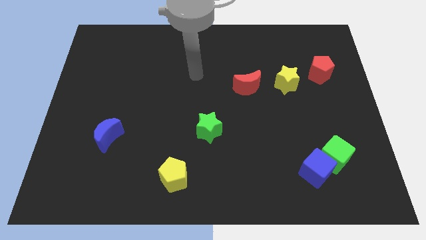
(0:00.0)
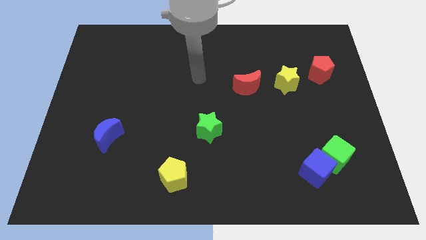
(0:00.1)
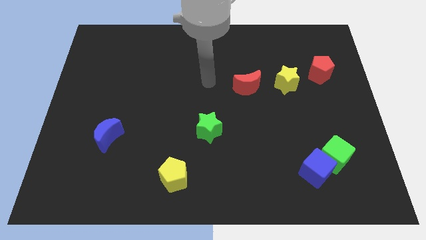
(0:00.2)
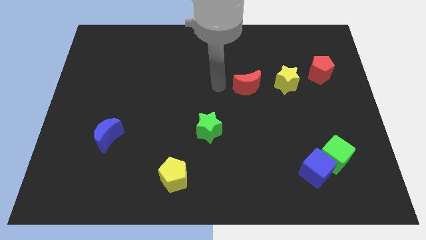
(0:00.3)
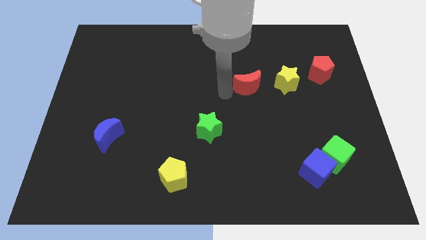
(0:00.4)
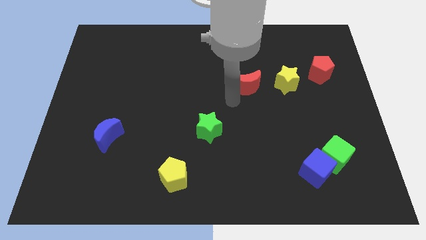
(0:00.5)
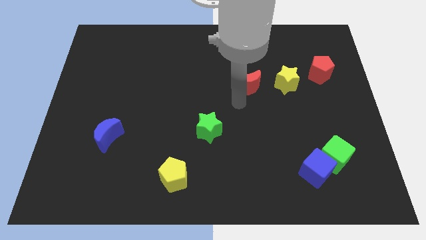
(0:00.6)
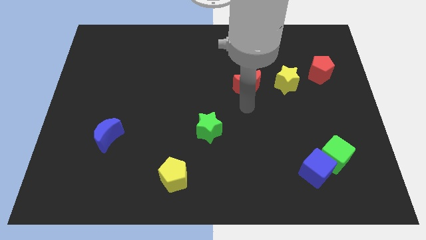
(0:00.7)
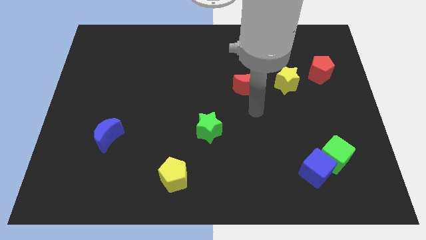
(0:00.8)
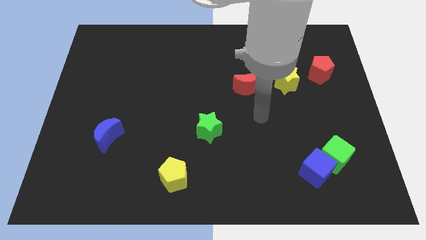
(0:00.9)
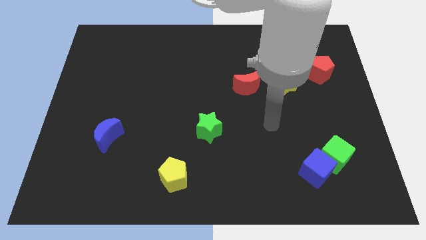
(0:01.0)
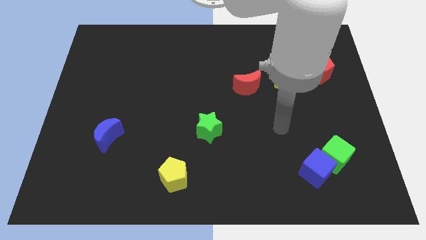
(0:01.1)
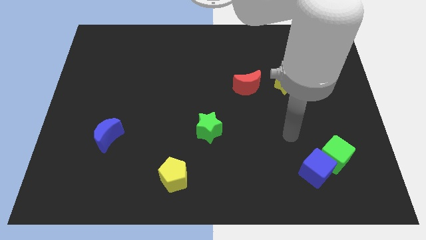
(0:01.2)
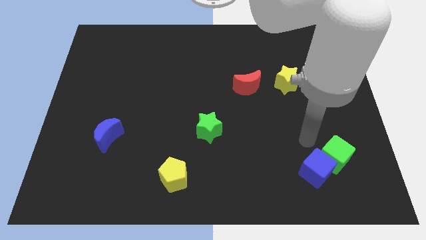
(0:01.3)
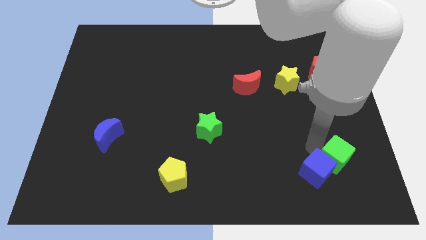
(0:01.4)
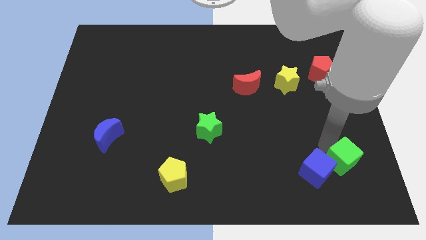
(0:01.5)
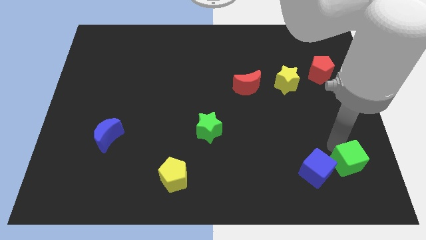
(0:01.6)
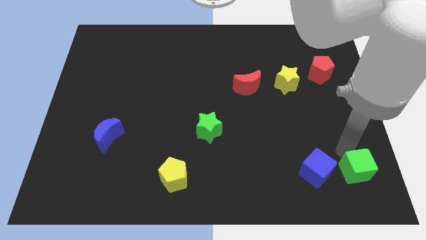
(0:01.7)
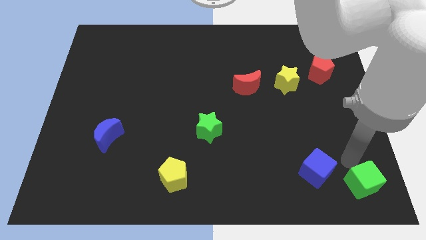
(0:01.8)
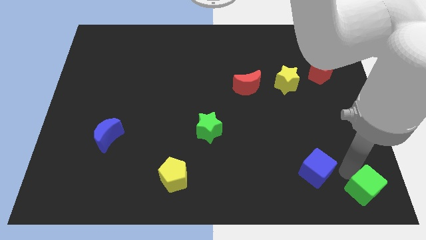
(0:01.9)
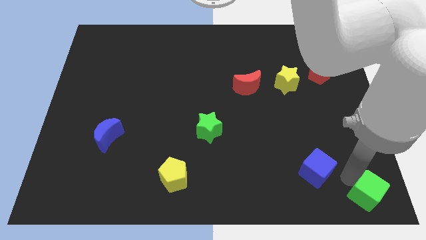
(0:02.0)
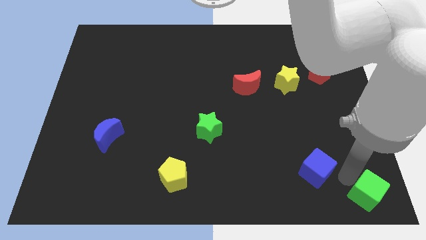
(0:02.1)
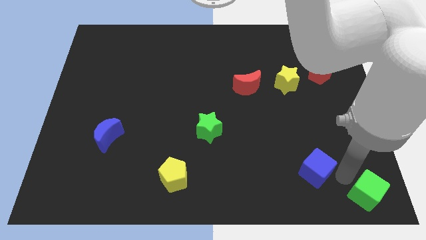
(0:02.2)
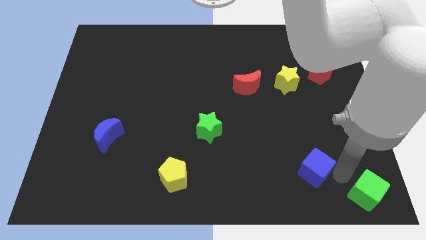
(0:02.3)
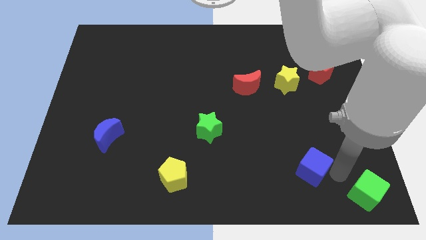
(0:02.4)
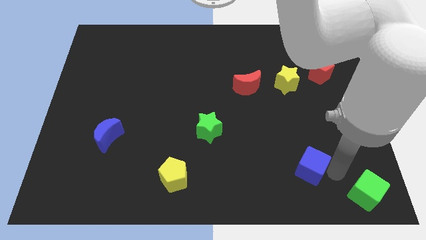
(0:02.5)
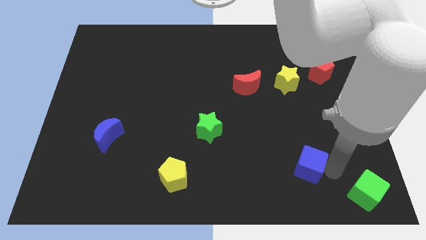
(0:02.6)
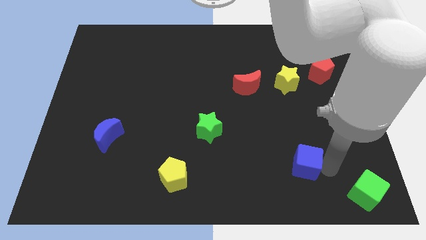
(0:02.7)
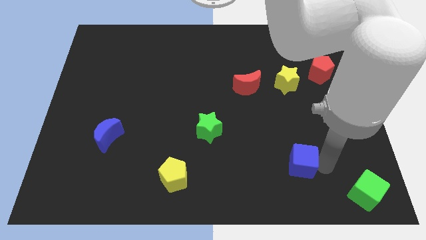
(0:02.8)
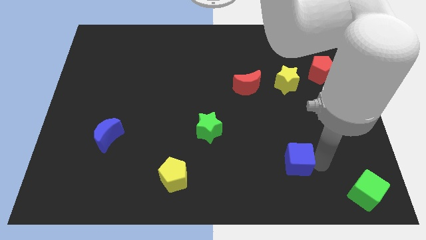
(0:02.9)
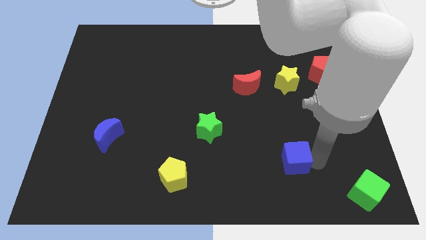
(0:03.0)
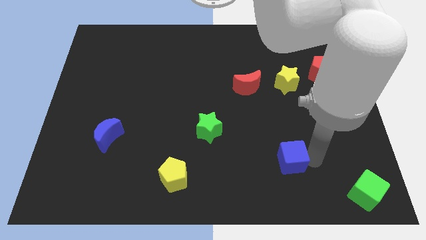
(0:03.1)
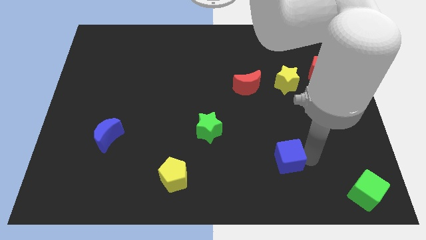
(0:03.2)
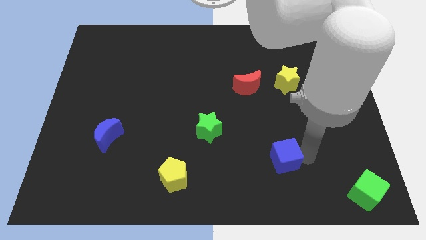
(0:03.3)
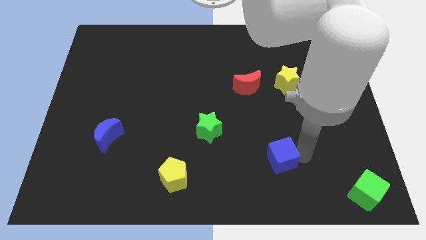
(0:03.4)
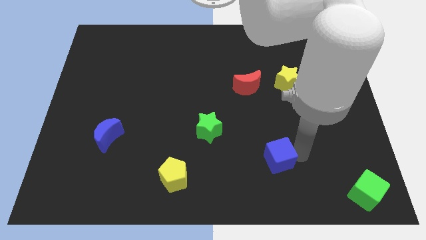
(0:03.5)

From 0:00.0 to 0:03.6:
move the blue cube somewhat left

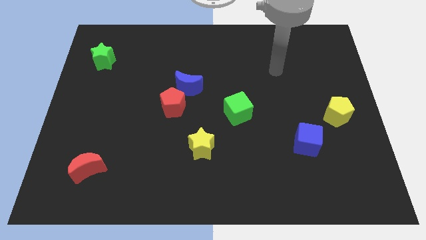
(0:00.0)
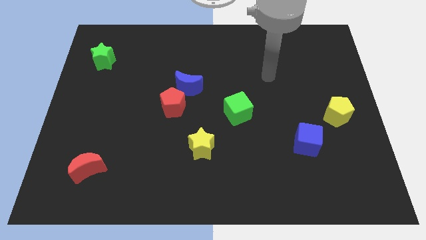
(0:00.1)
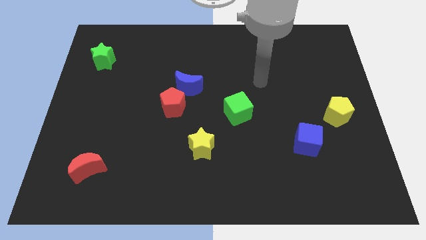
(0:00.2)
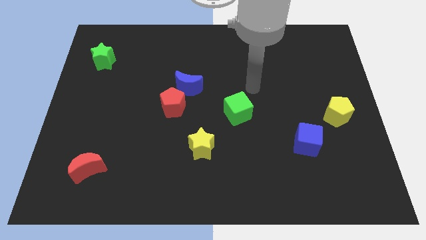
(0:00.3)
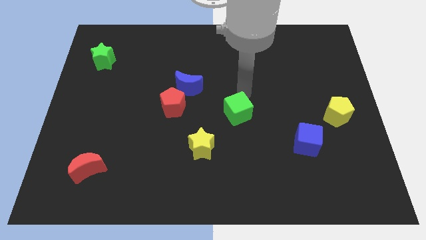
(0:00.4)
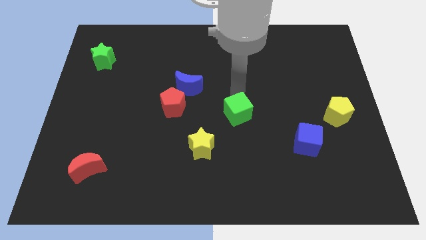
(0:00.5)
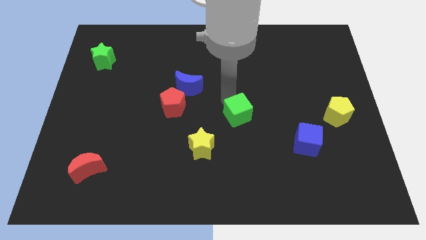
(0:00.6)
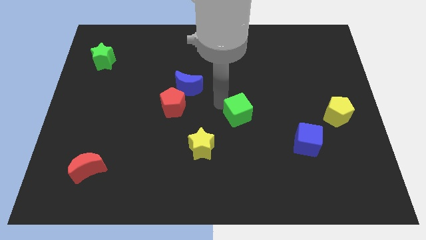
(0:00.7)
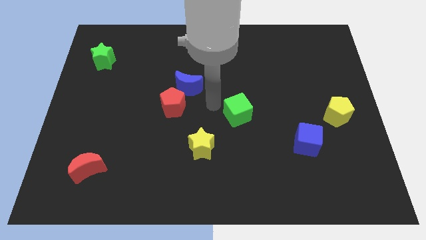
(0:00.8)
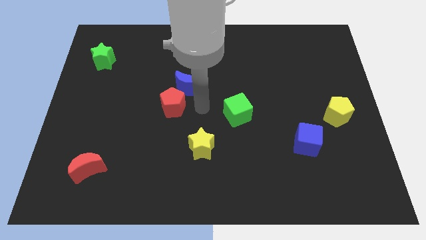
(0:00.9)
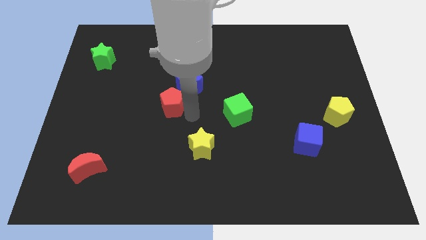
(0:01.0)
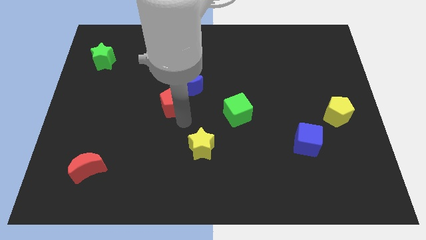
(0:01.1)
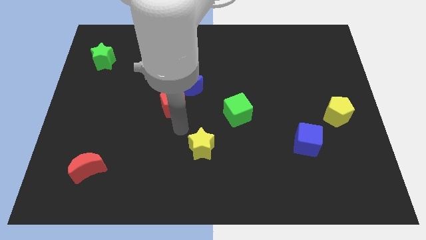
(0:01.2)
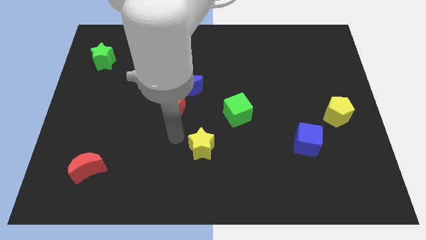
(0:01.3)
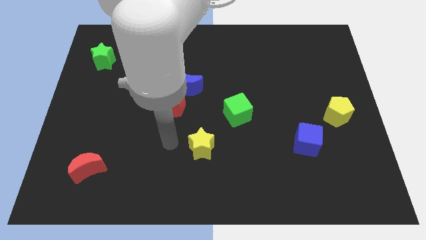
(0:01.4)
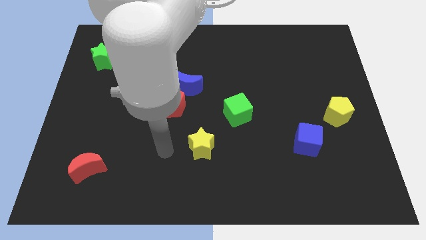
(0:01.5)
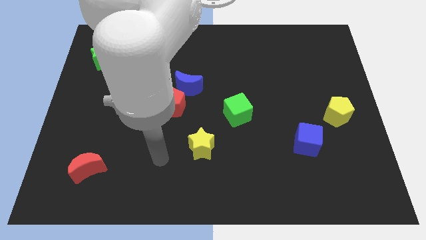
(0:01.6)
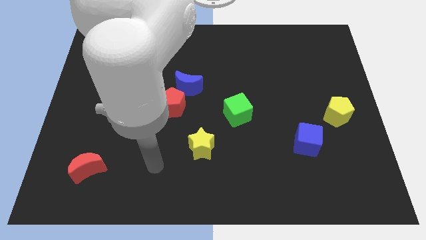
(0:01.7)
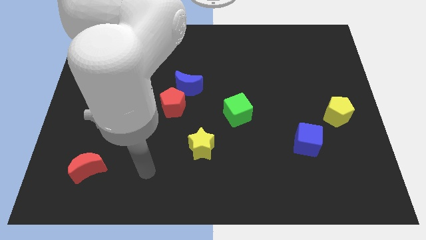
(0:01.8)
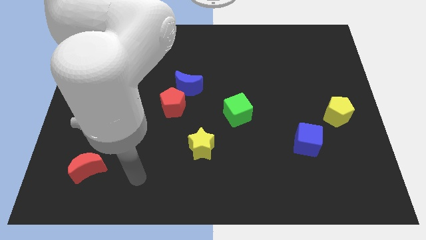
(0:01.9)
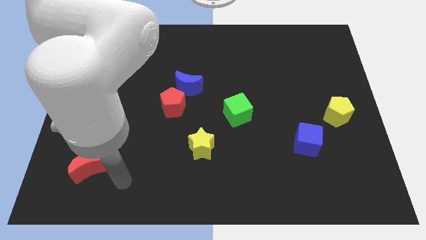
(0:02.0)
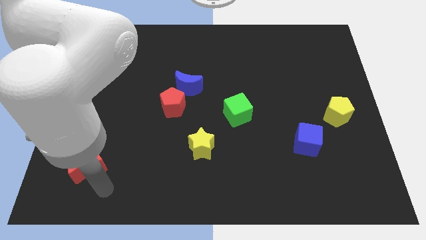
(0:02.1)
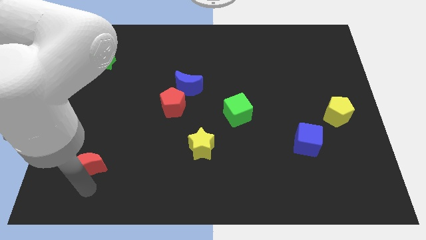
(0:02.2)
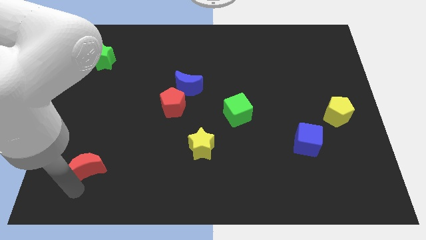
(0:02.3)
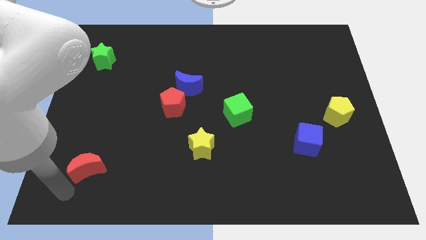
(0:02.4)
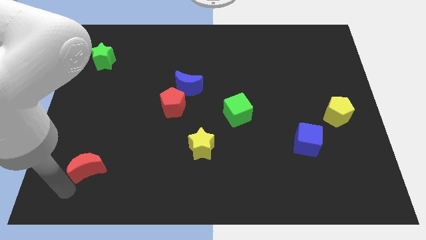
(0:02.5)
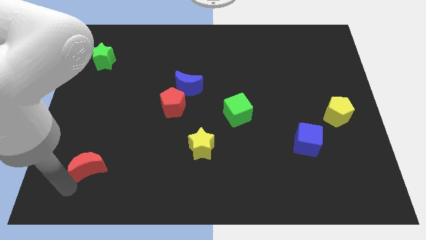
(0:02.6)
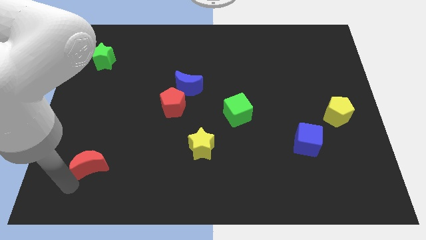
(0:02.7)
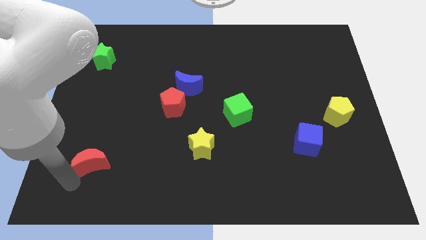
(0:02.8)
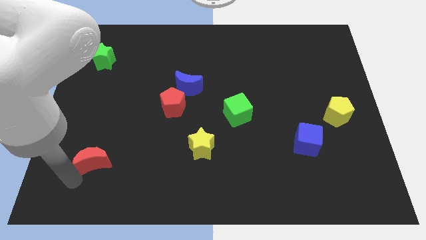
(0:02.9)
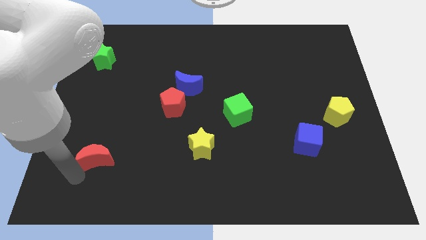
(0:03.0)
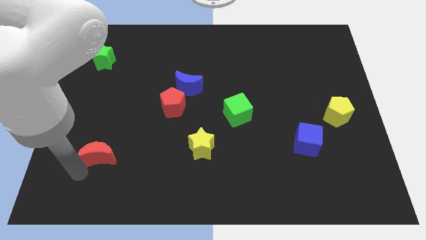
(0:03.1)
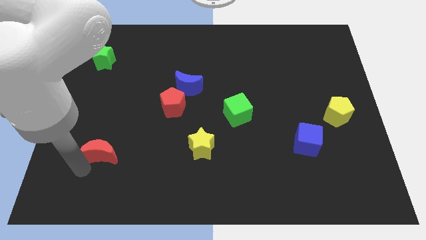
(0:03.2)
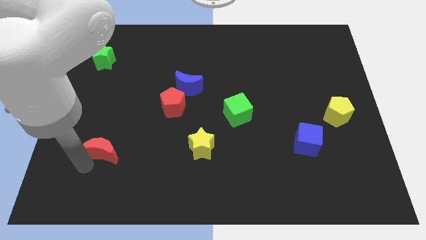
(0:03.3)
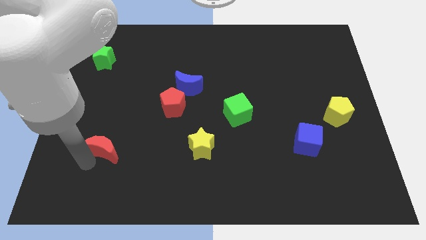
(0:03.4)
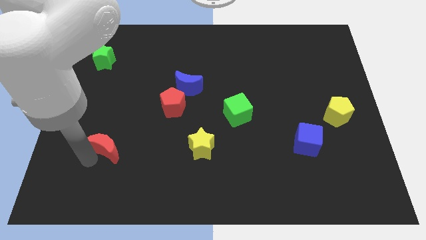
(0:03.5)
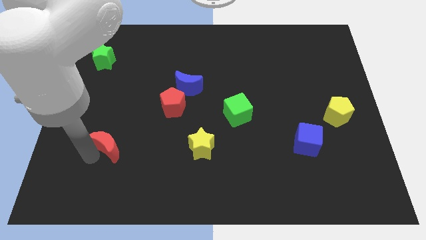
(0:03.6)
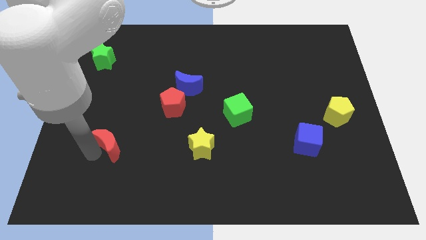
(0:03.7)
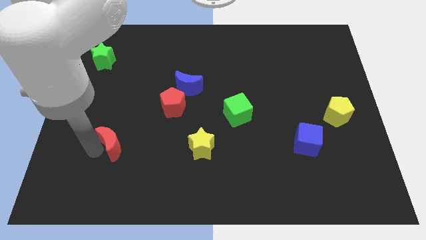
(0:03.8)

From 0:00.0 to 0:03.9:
slide the red moon up and to the right a little
